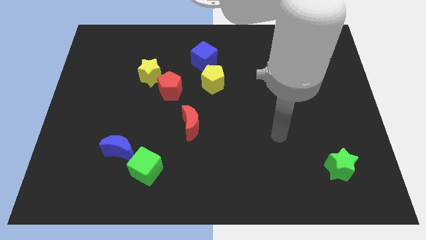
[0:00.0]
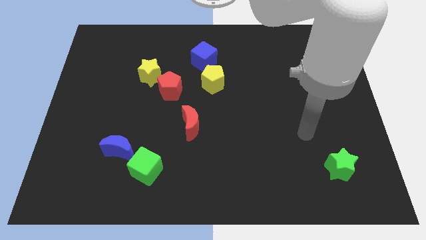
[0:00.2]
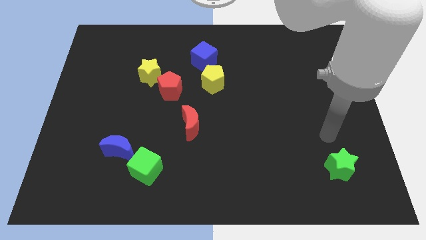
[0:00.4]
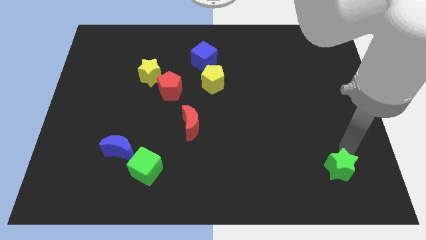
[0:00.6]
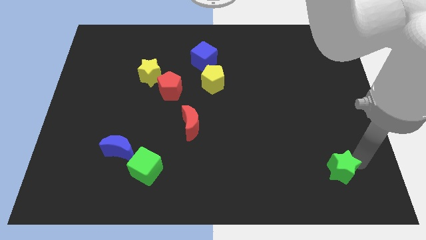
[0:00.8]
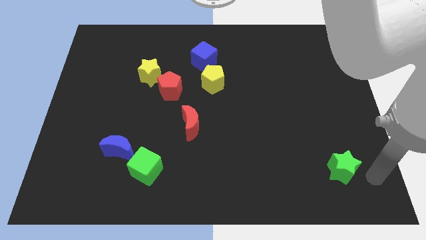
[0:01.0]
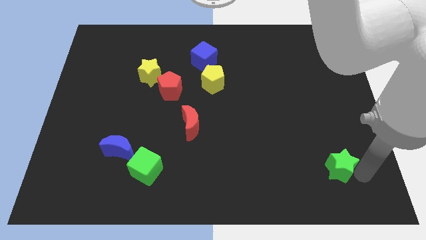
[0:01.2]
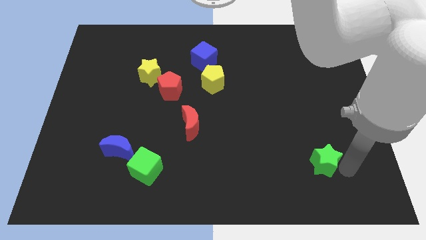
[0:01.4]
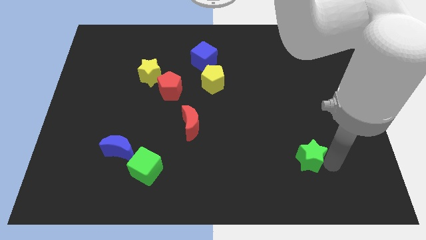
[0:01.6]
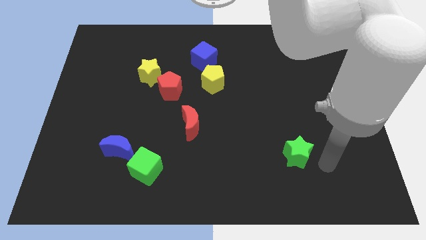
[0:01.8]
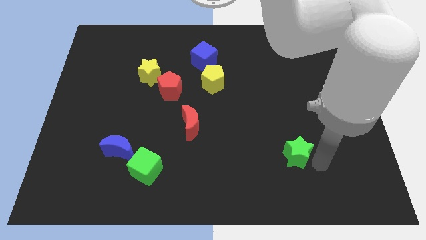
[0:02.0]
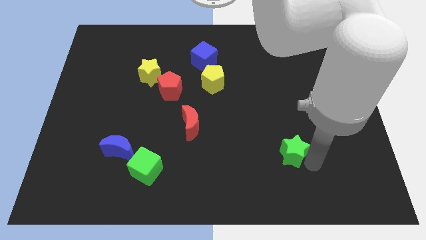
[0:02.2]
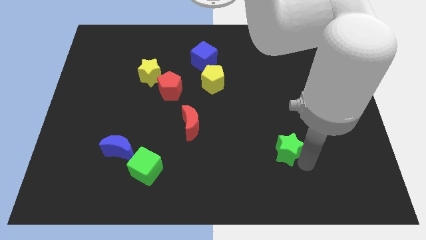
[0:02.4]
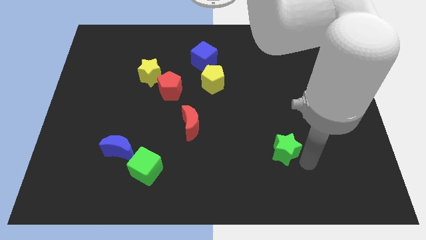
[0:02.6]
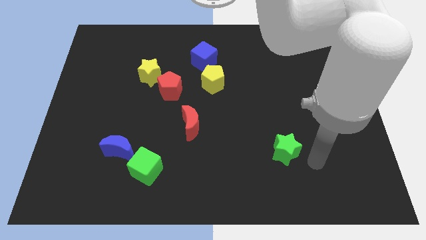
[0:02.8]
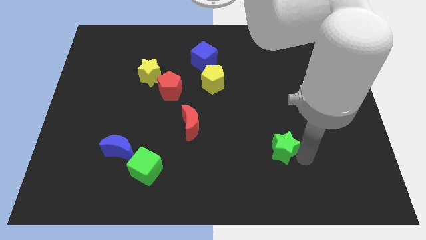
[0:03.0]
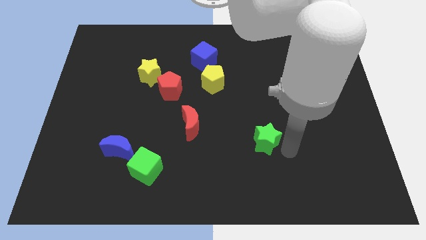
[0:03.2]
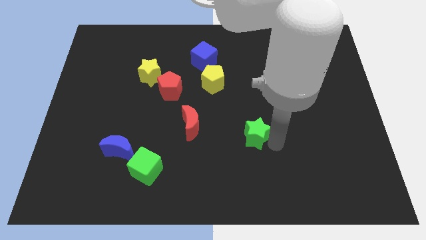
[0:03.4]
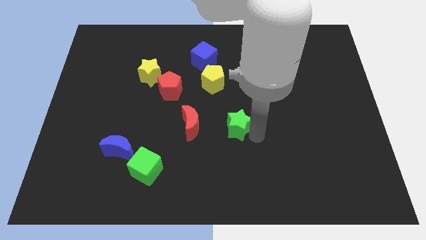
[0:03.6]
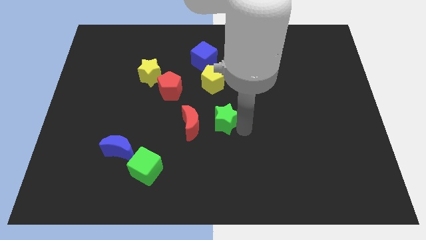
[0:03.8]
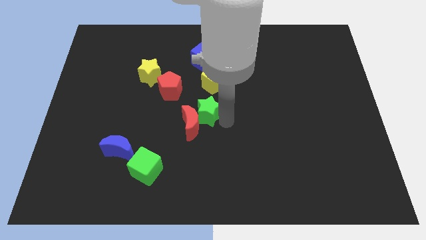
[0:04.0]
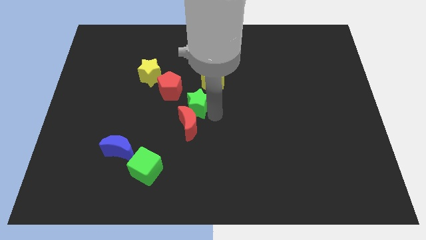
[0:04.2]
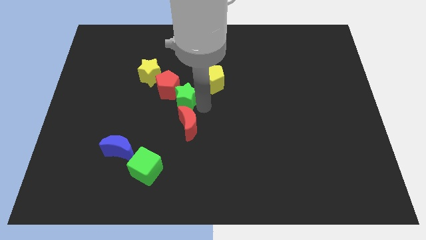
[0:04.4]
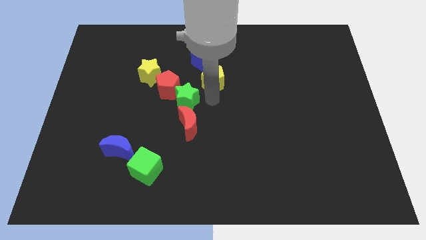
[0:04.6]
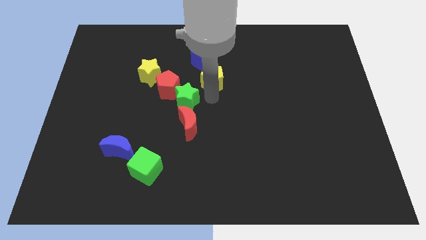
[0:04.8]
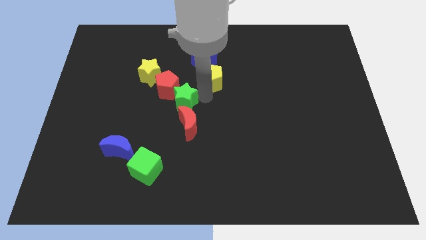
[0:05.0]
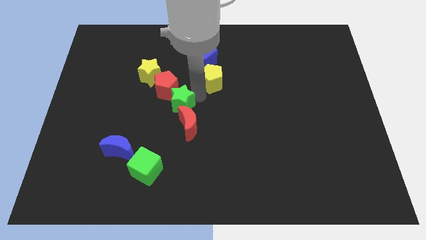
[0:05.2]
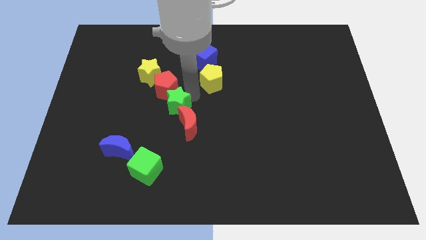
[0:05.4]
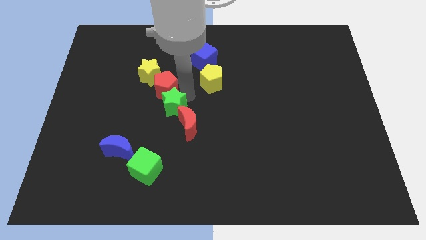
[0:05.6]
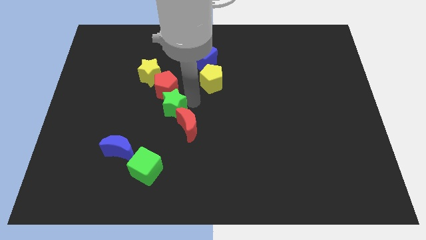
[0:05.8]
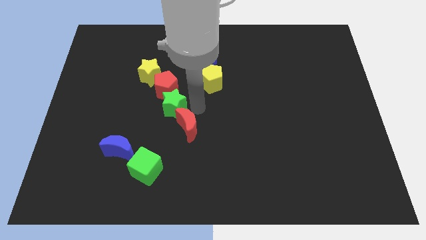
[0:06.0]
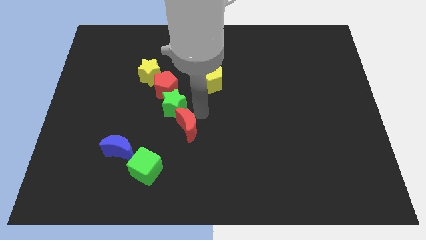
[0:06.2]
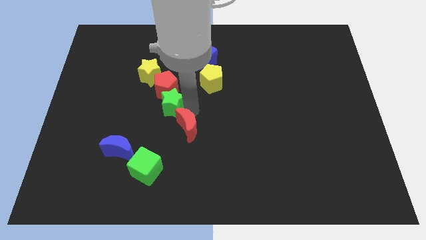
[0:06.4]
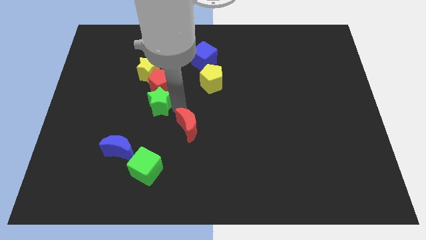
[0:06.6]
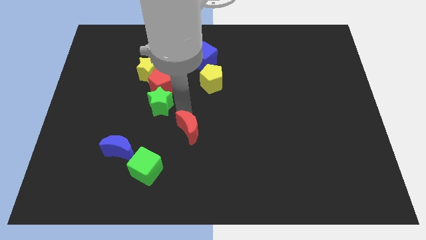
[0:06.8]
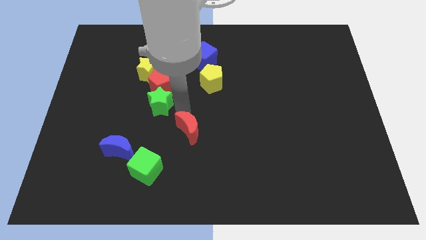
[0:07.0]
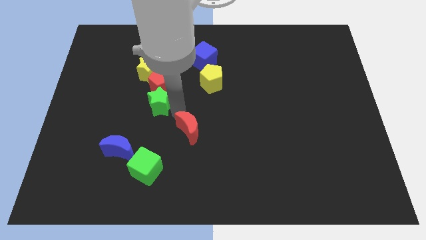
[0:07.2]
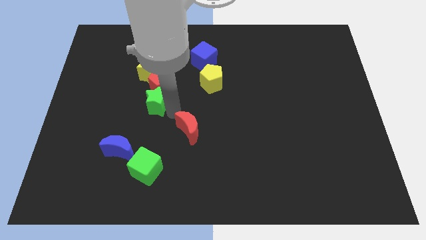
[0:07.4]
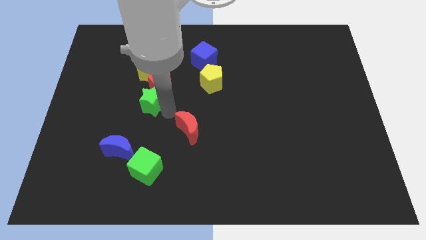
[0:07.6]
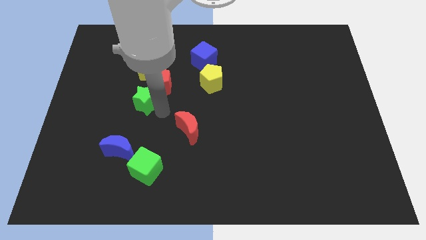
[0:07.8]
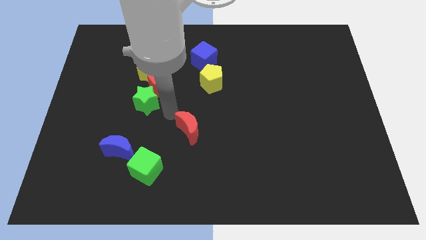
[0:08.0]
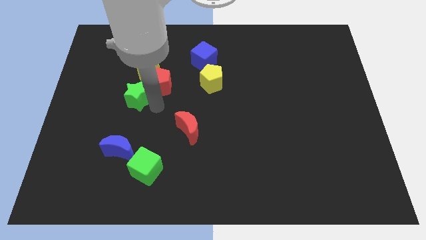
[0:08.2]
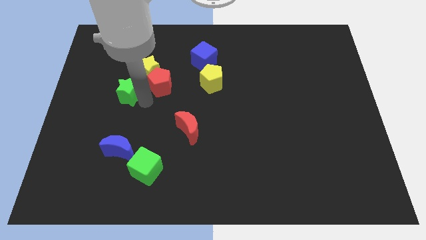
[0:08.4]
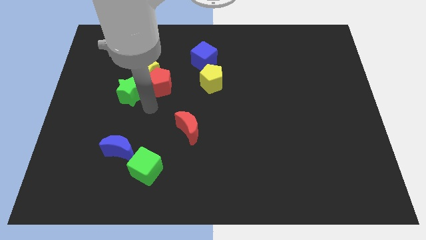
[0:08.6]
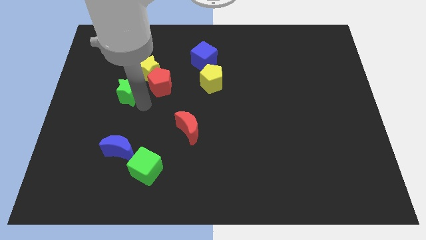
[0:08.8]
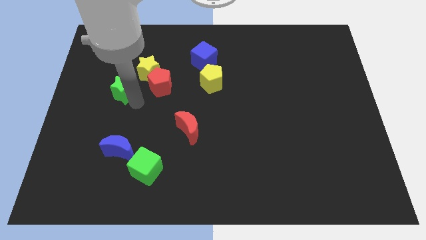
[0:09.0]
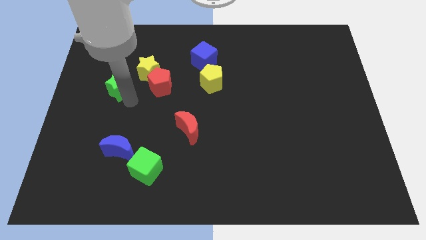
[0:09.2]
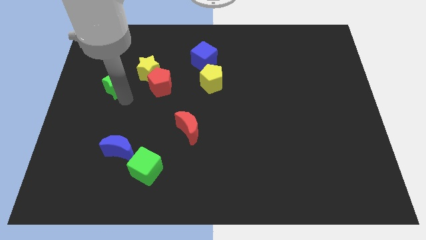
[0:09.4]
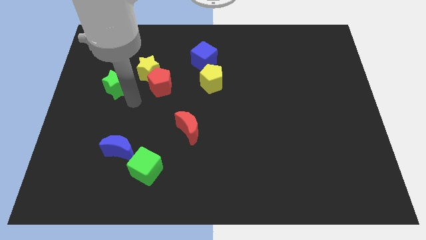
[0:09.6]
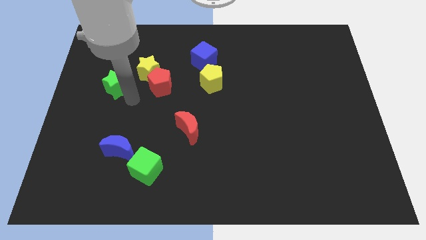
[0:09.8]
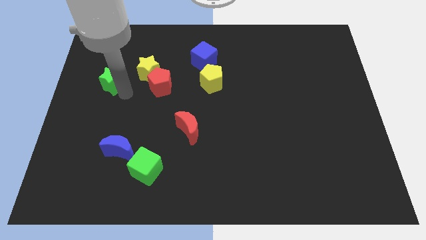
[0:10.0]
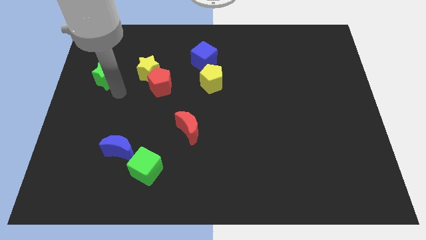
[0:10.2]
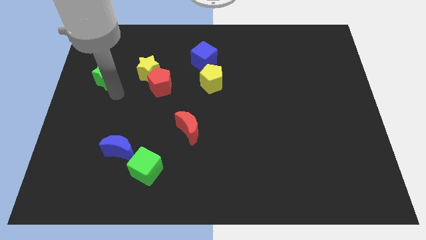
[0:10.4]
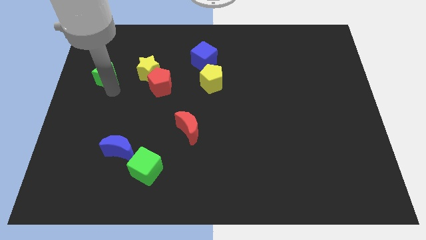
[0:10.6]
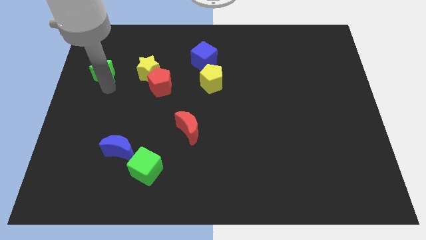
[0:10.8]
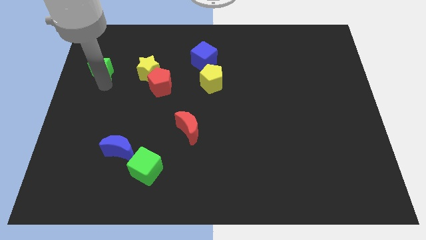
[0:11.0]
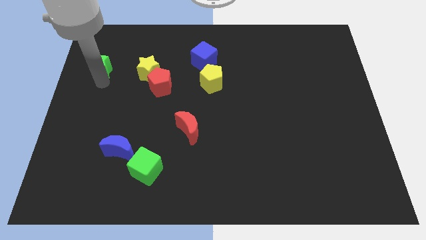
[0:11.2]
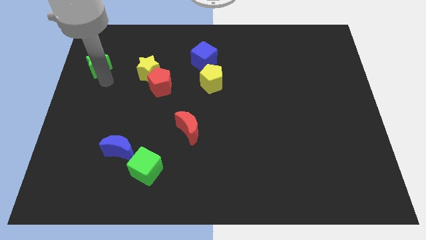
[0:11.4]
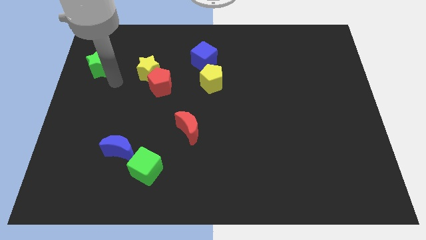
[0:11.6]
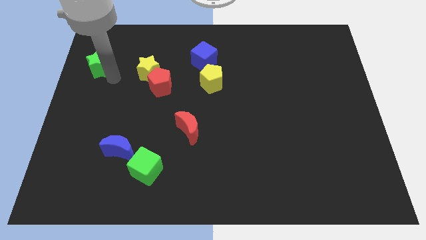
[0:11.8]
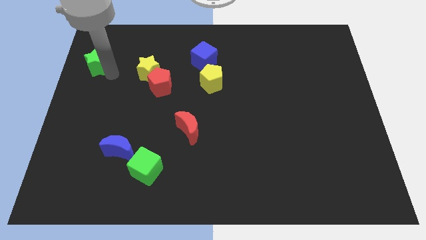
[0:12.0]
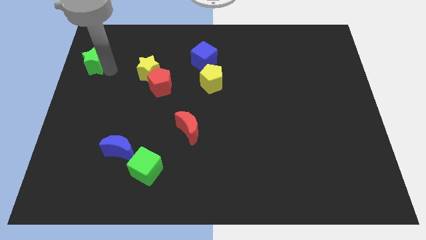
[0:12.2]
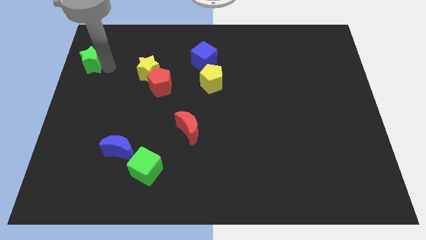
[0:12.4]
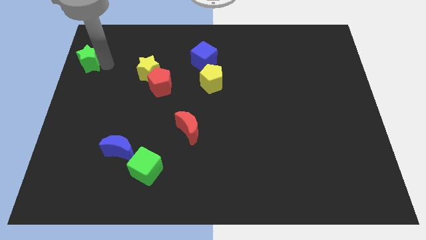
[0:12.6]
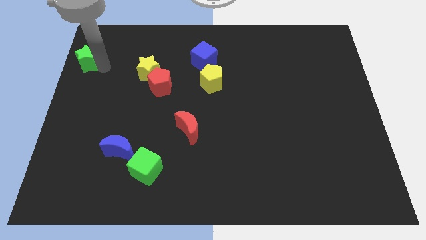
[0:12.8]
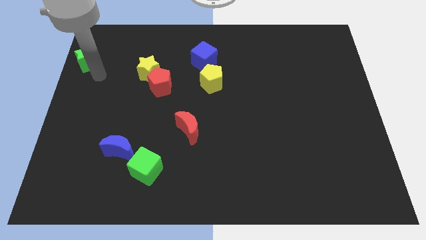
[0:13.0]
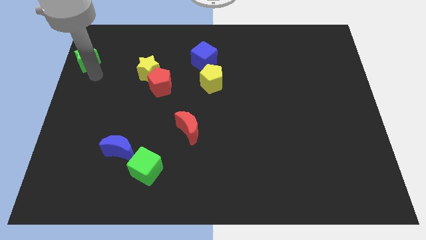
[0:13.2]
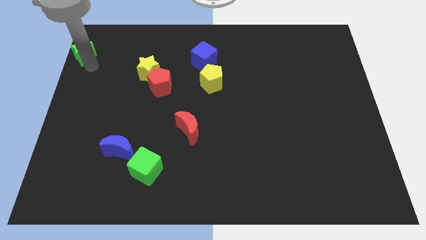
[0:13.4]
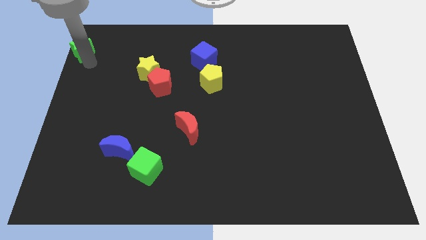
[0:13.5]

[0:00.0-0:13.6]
push the green star to the top left
